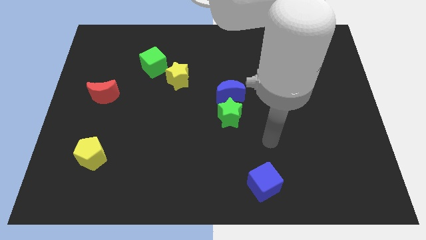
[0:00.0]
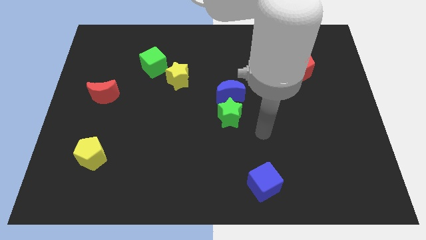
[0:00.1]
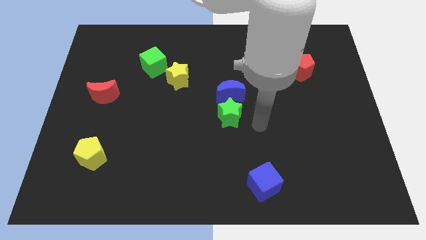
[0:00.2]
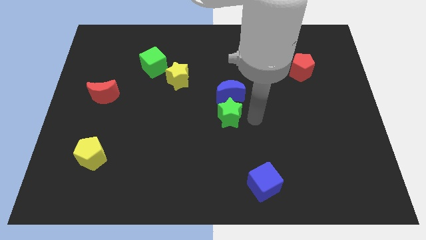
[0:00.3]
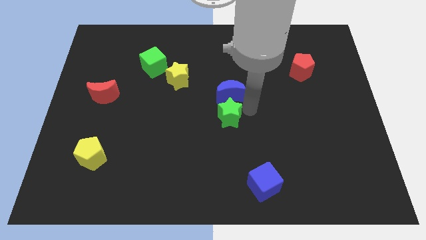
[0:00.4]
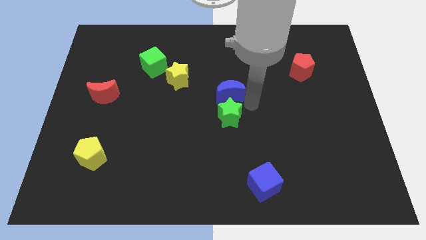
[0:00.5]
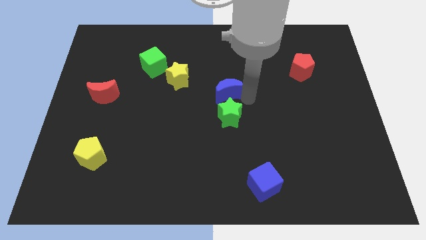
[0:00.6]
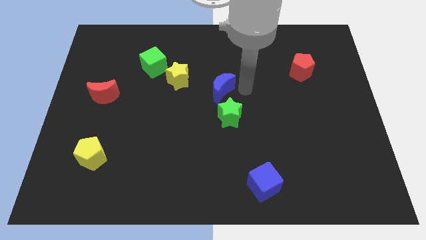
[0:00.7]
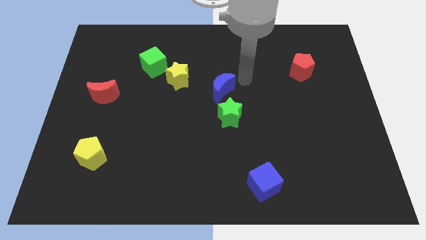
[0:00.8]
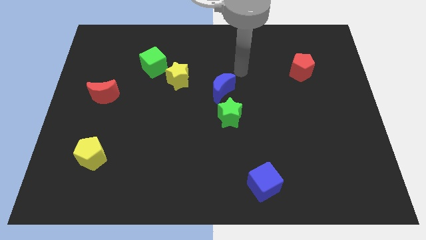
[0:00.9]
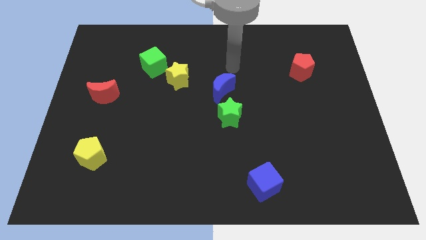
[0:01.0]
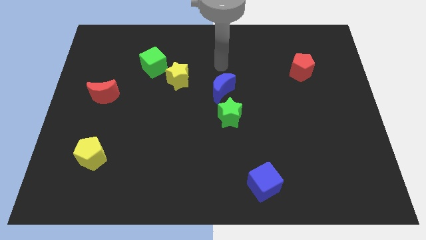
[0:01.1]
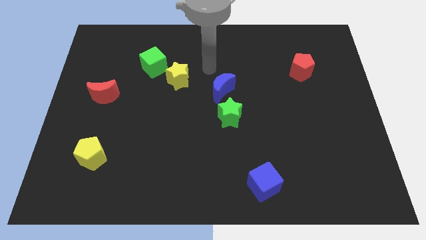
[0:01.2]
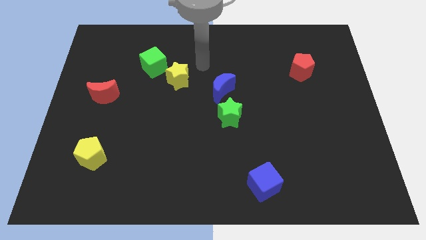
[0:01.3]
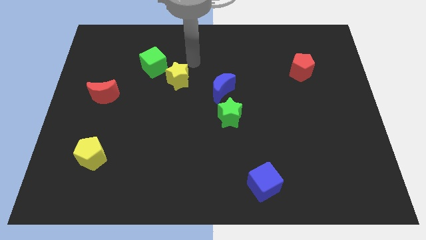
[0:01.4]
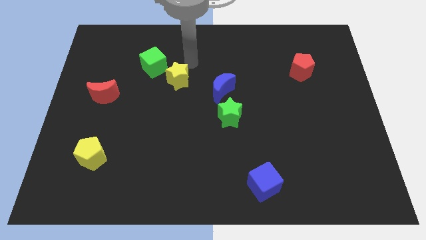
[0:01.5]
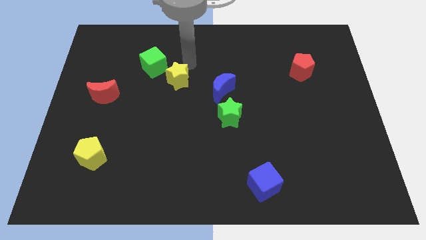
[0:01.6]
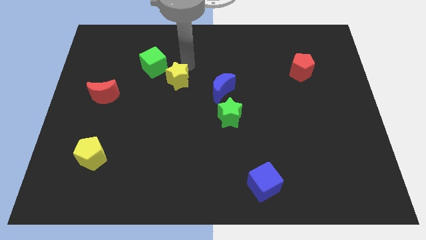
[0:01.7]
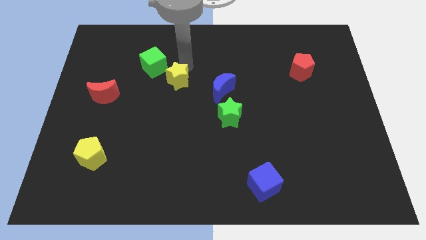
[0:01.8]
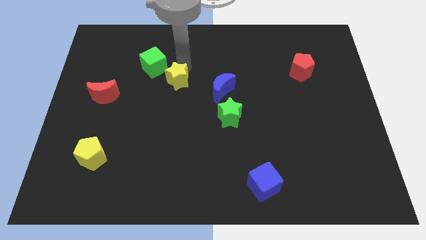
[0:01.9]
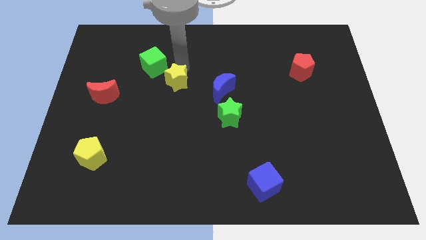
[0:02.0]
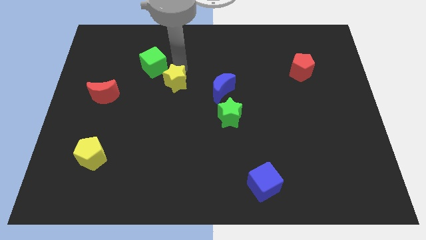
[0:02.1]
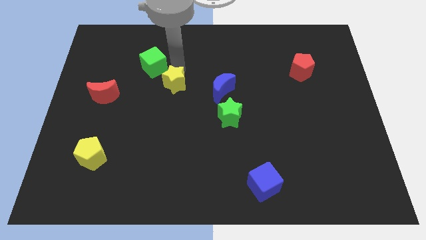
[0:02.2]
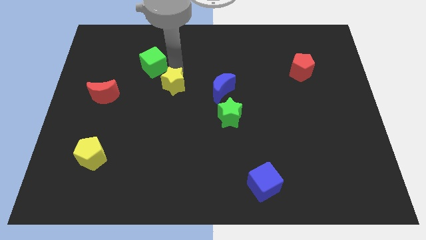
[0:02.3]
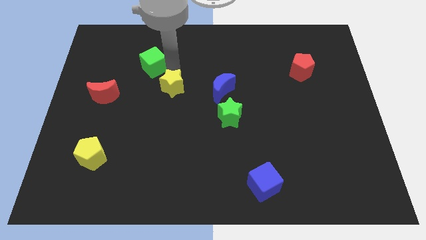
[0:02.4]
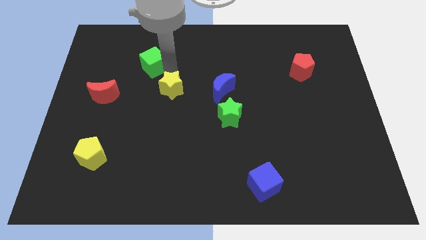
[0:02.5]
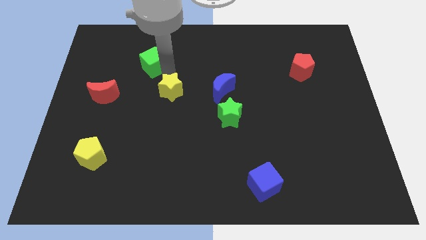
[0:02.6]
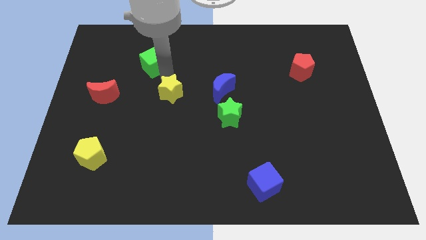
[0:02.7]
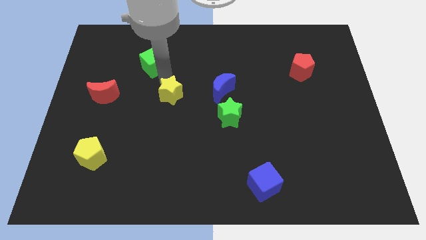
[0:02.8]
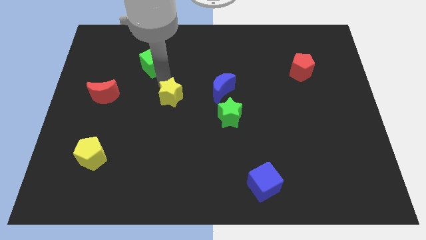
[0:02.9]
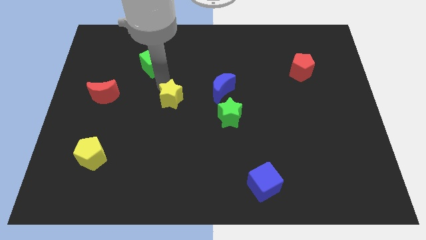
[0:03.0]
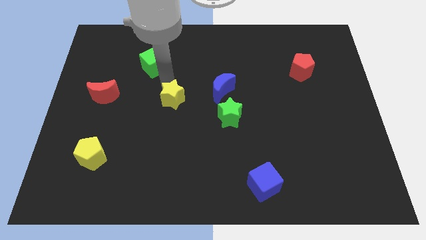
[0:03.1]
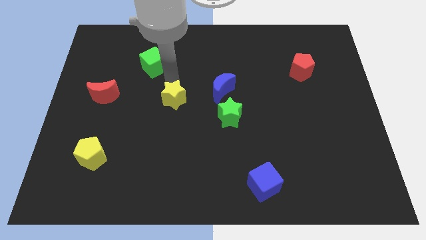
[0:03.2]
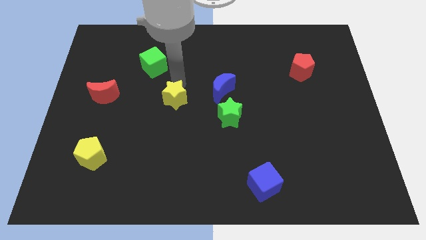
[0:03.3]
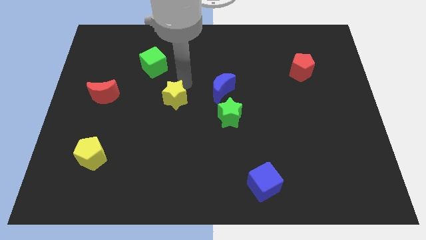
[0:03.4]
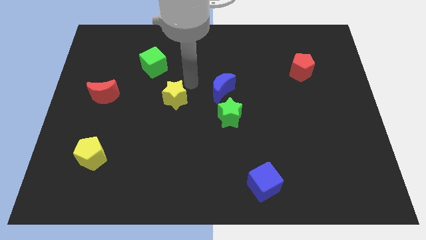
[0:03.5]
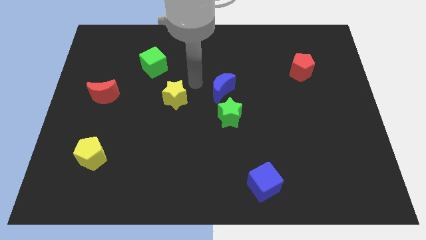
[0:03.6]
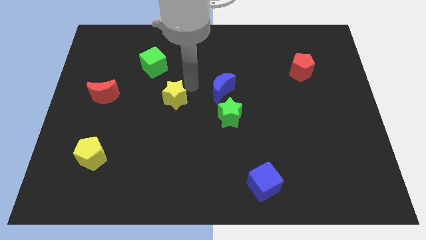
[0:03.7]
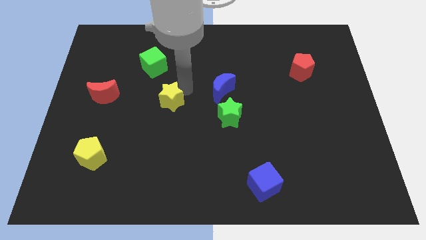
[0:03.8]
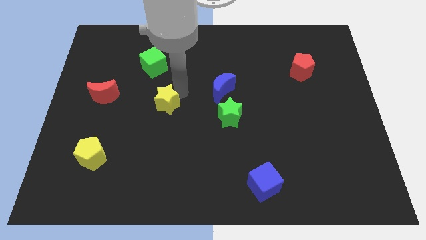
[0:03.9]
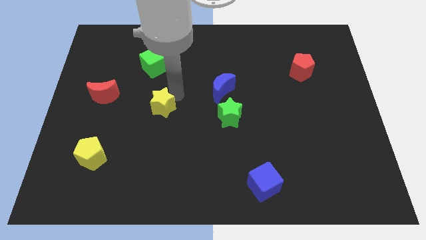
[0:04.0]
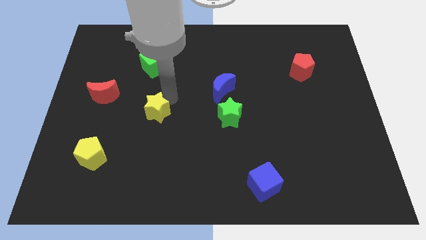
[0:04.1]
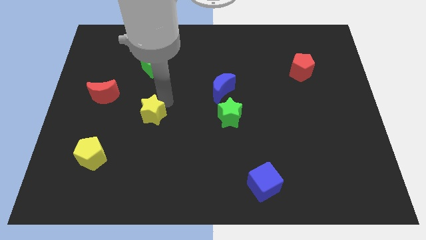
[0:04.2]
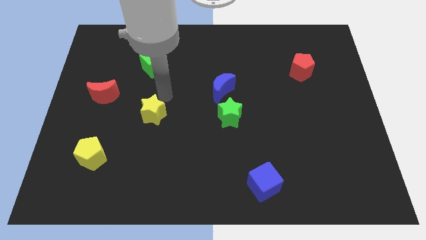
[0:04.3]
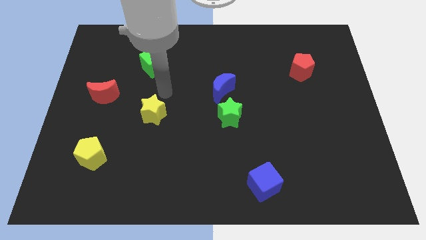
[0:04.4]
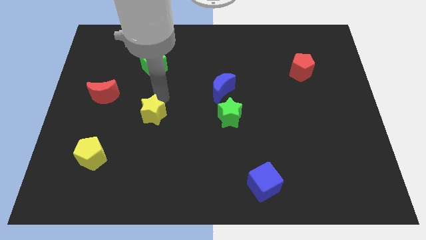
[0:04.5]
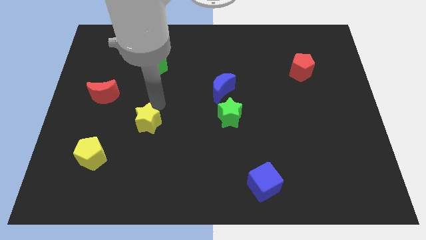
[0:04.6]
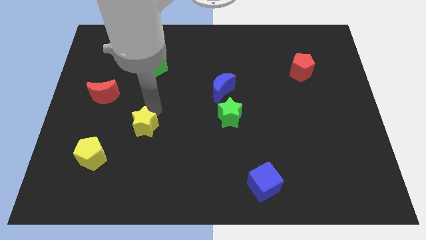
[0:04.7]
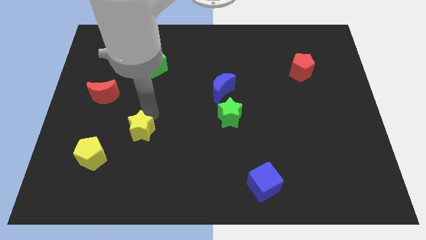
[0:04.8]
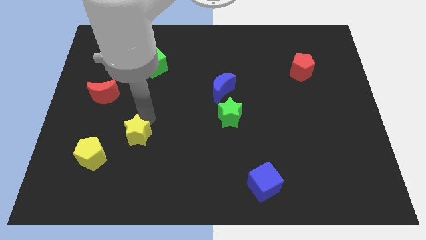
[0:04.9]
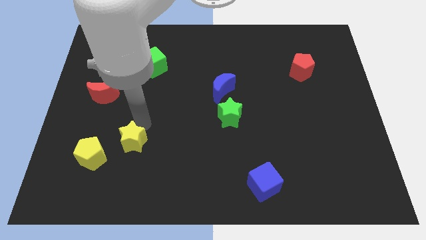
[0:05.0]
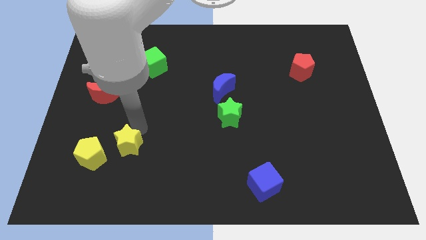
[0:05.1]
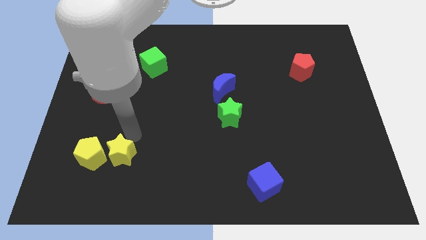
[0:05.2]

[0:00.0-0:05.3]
push the yellow star diagonally down and to the right of the yellow pentagon

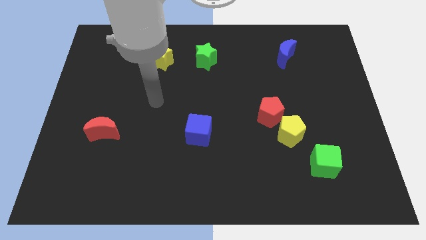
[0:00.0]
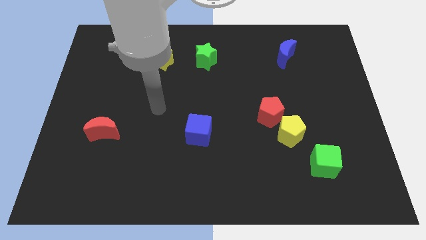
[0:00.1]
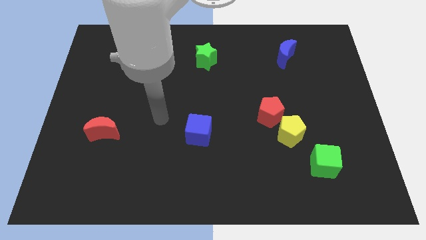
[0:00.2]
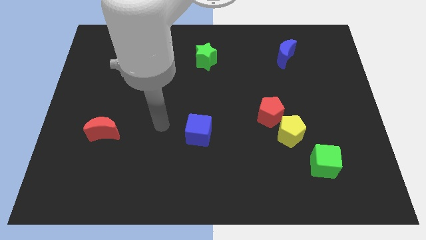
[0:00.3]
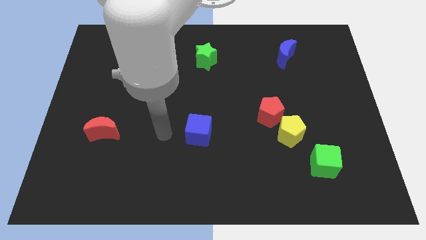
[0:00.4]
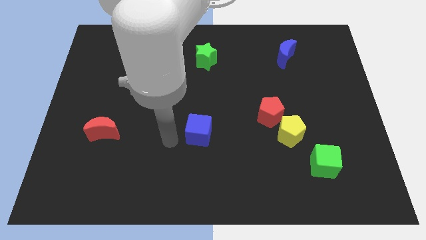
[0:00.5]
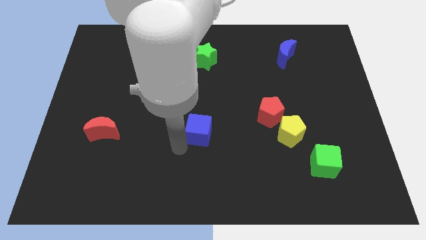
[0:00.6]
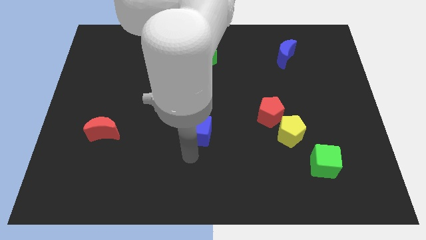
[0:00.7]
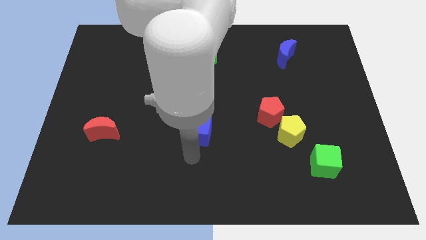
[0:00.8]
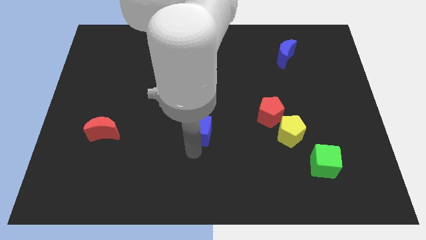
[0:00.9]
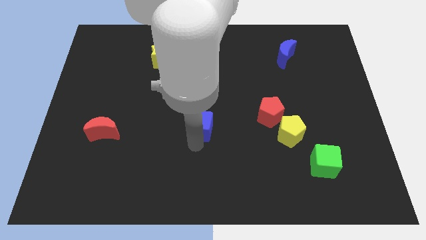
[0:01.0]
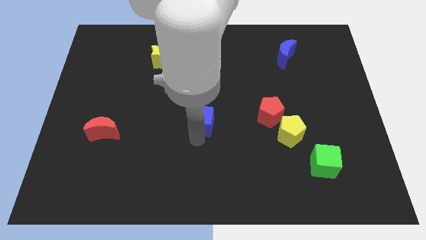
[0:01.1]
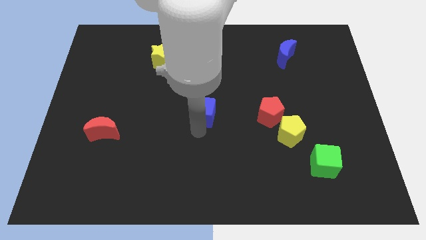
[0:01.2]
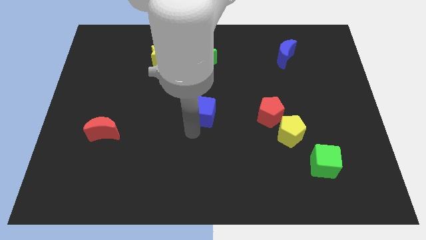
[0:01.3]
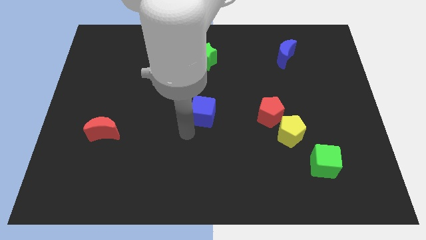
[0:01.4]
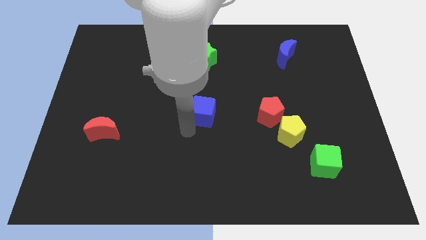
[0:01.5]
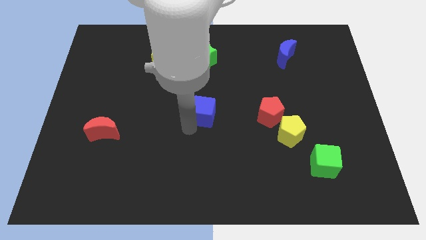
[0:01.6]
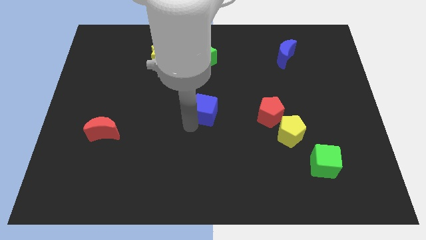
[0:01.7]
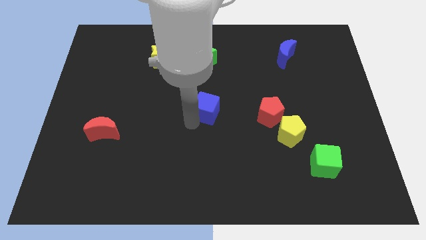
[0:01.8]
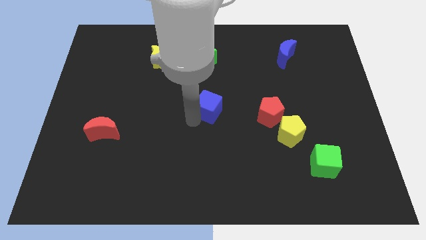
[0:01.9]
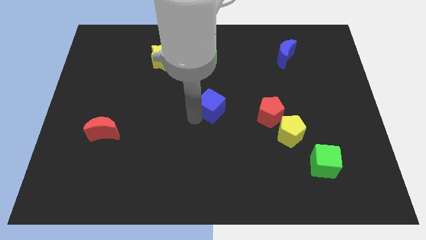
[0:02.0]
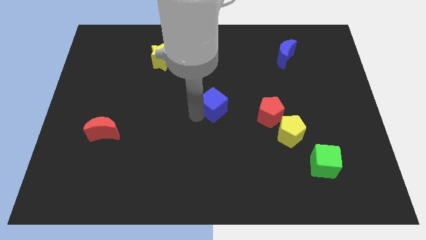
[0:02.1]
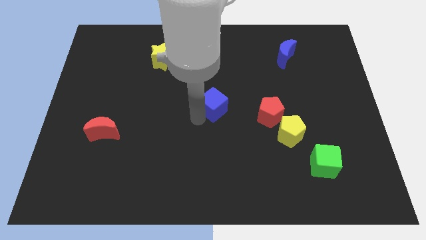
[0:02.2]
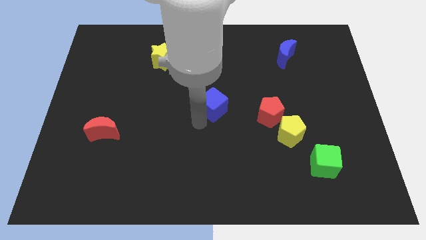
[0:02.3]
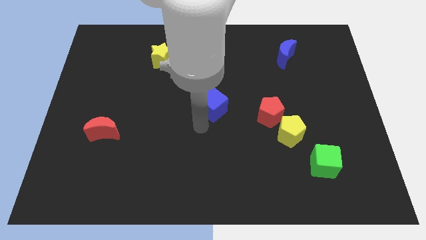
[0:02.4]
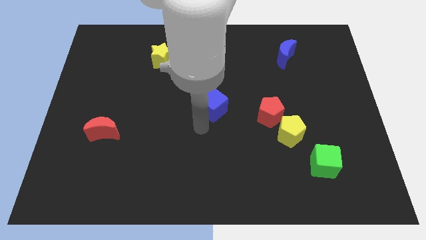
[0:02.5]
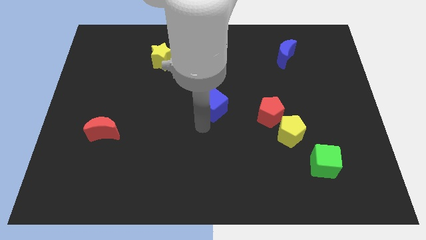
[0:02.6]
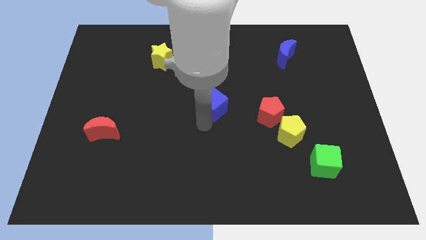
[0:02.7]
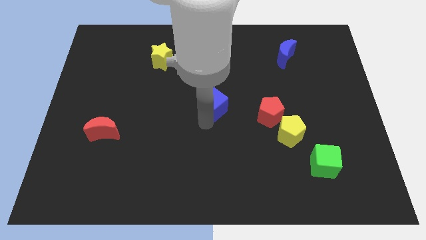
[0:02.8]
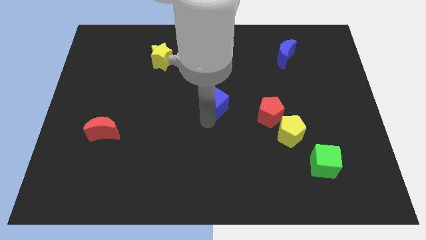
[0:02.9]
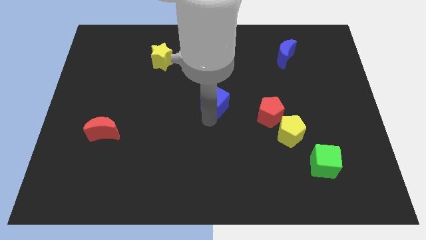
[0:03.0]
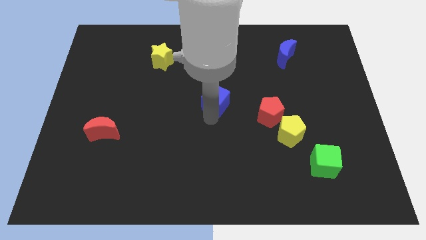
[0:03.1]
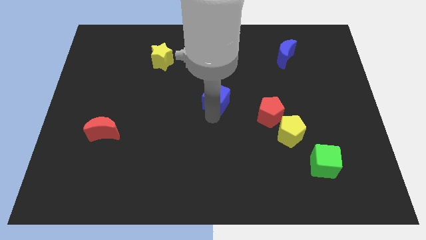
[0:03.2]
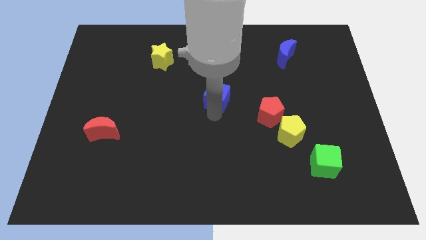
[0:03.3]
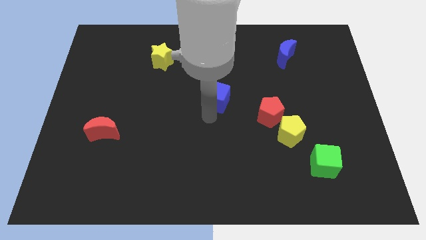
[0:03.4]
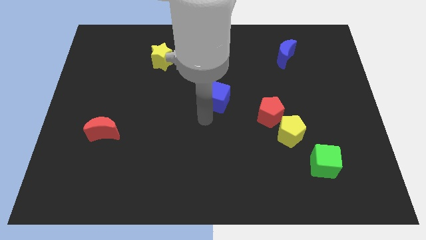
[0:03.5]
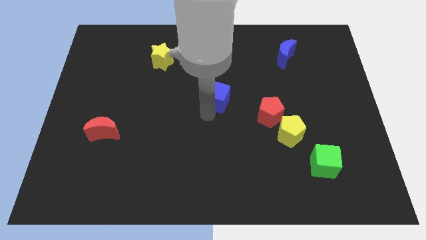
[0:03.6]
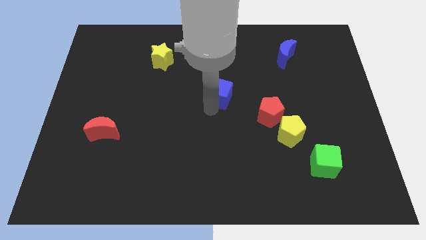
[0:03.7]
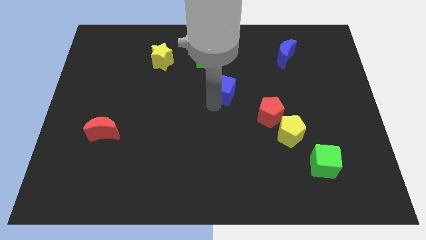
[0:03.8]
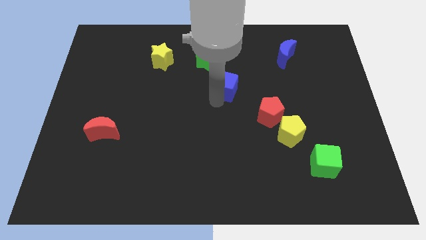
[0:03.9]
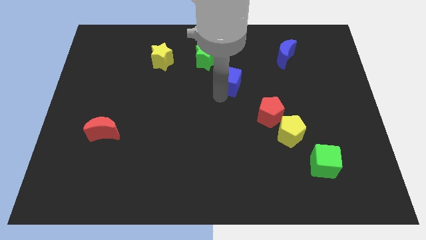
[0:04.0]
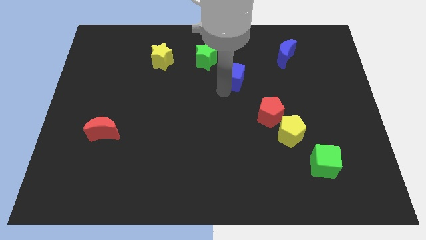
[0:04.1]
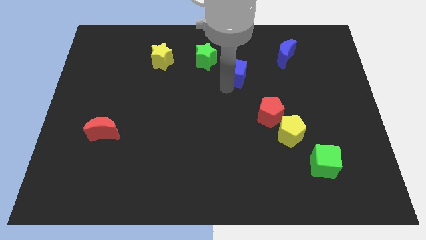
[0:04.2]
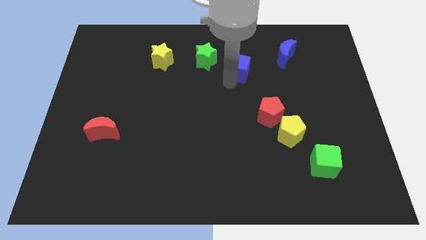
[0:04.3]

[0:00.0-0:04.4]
move the blue cube just right of the green star
